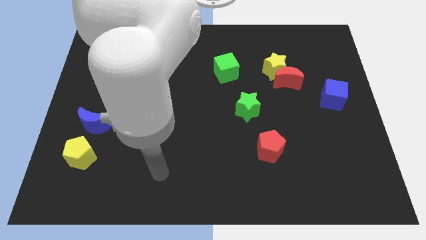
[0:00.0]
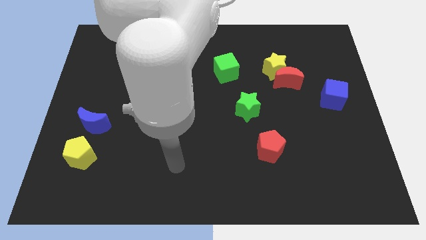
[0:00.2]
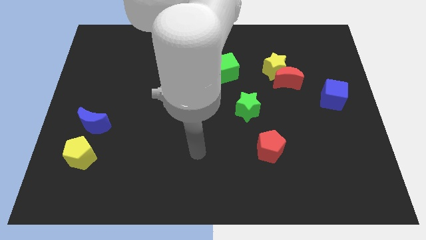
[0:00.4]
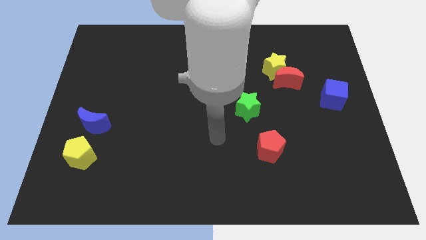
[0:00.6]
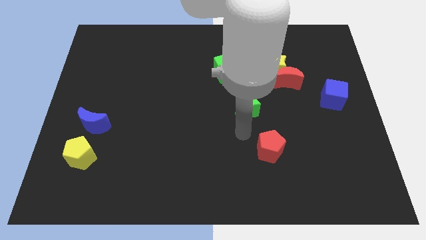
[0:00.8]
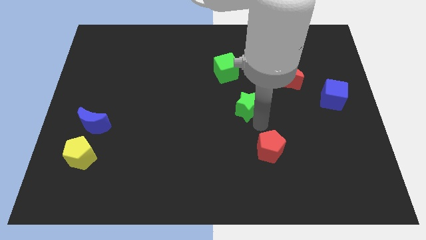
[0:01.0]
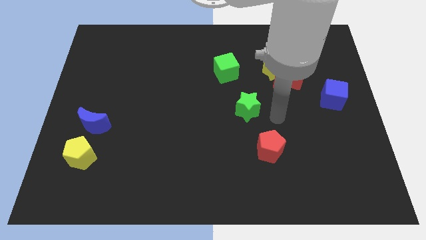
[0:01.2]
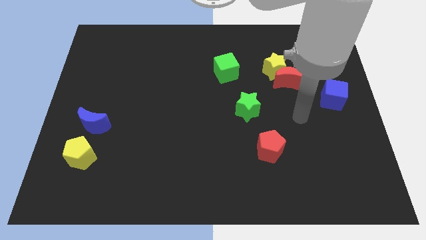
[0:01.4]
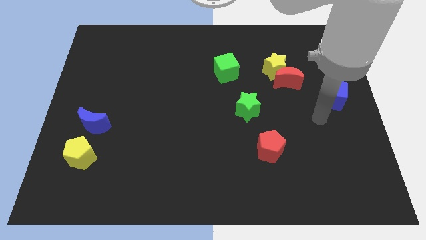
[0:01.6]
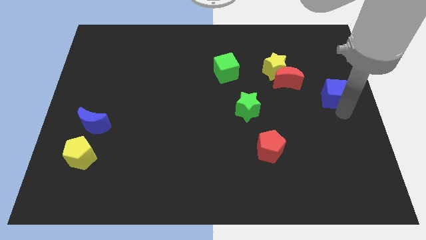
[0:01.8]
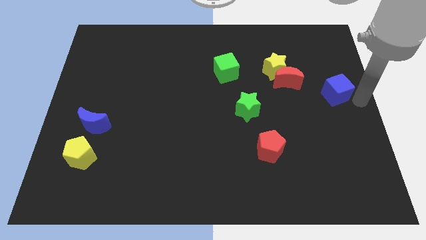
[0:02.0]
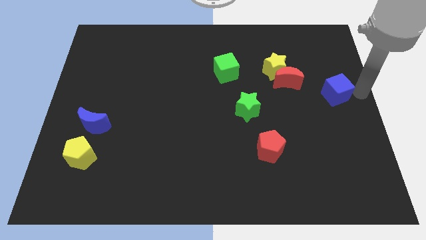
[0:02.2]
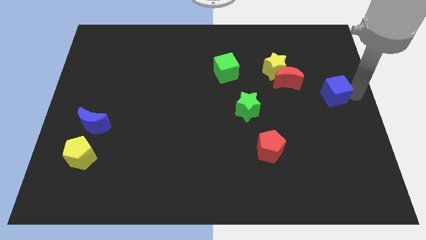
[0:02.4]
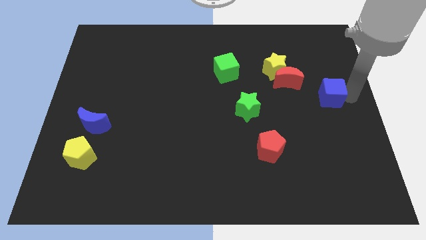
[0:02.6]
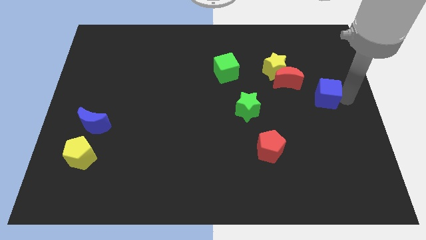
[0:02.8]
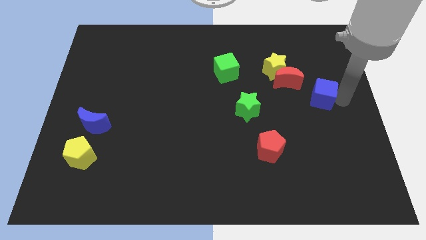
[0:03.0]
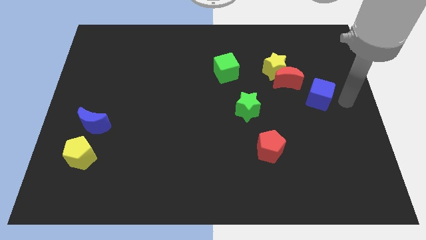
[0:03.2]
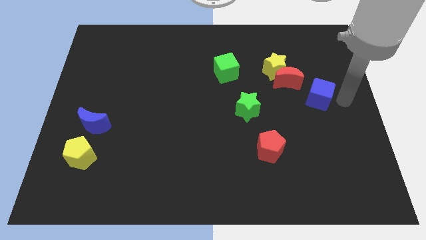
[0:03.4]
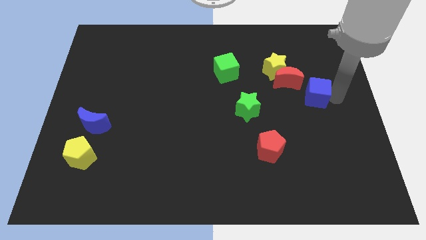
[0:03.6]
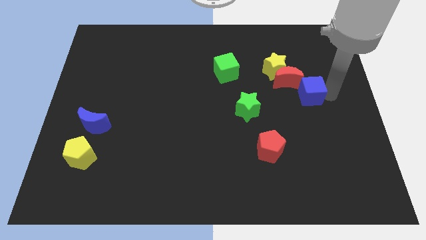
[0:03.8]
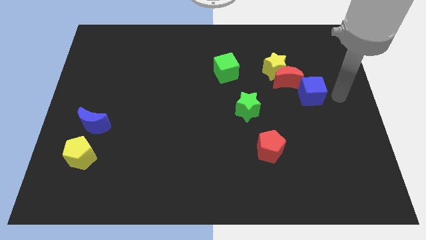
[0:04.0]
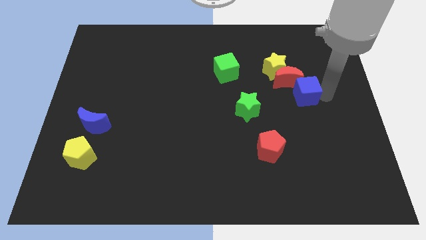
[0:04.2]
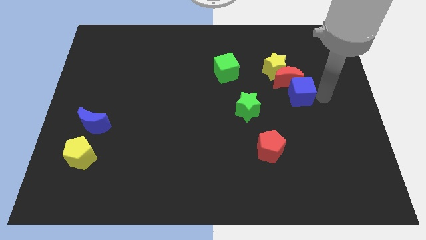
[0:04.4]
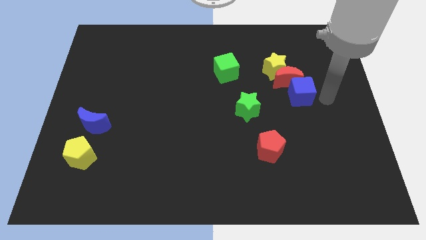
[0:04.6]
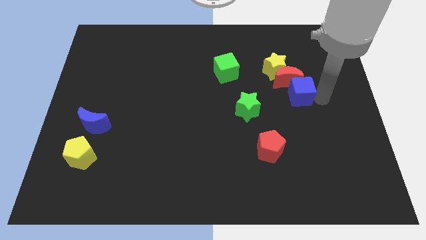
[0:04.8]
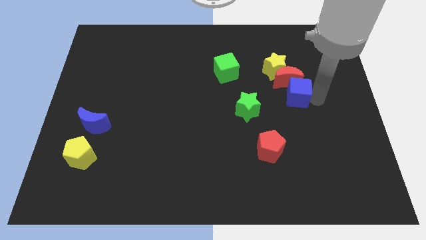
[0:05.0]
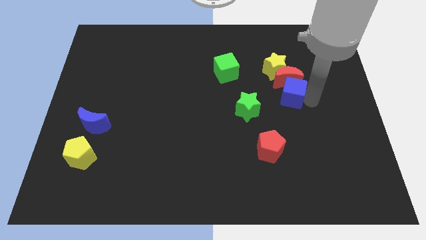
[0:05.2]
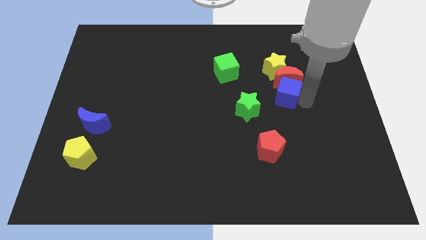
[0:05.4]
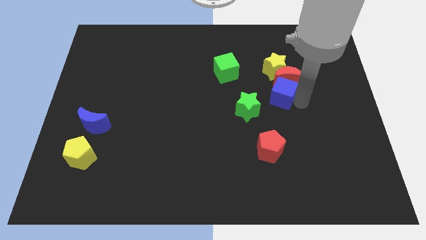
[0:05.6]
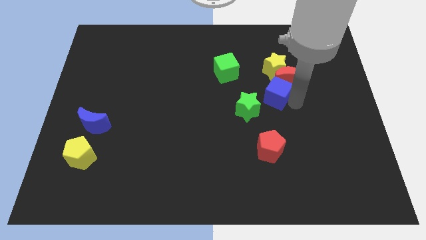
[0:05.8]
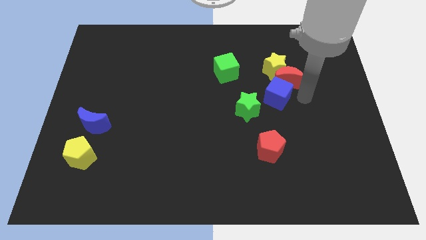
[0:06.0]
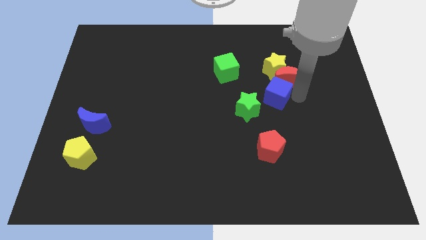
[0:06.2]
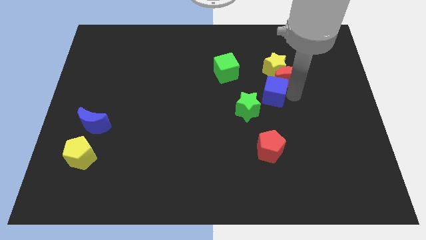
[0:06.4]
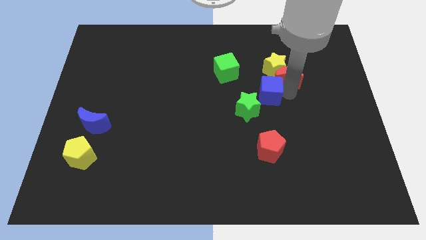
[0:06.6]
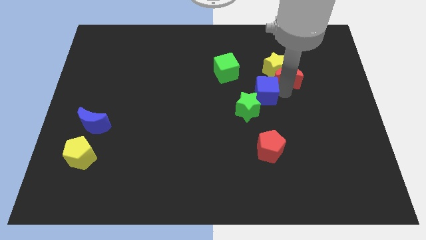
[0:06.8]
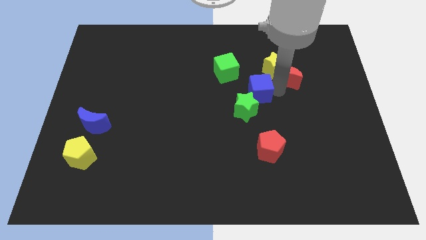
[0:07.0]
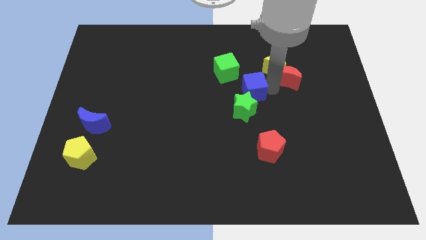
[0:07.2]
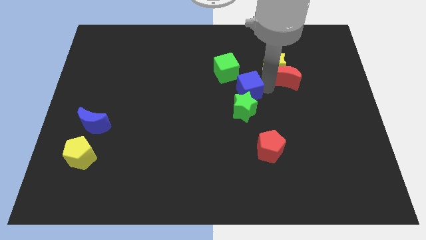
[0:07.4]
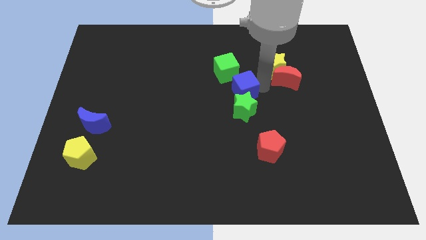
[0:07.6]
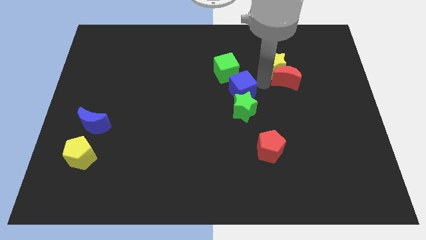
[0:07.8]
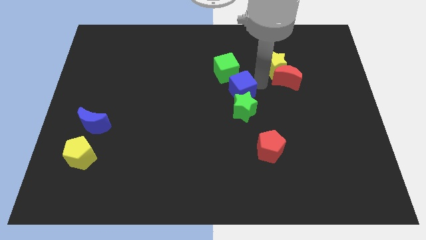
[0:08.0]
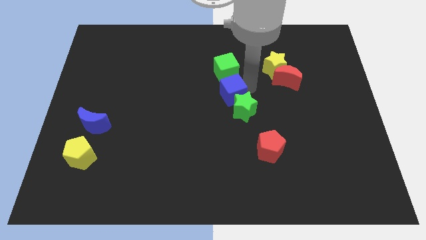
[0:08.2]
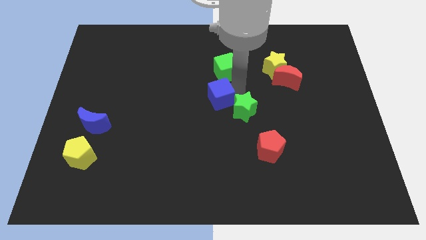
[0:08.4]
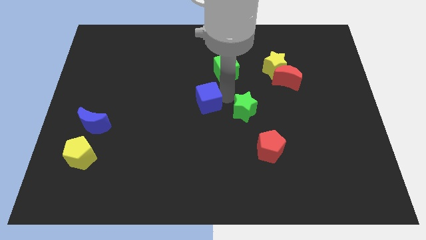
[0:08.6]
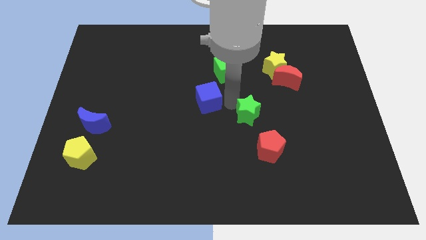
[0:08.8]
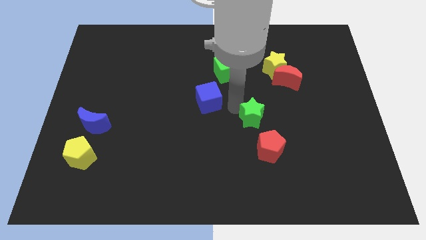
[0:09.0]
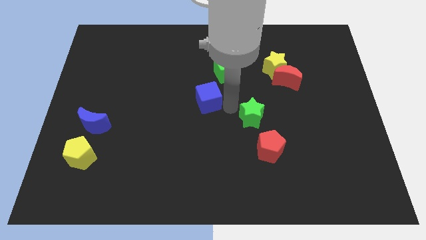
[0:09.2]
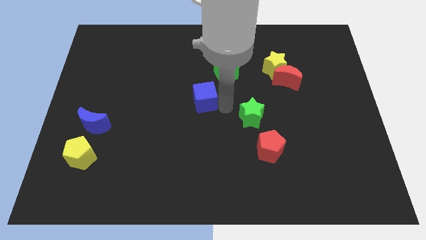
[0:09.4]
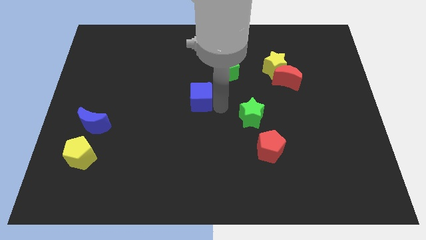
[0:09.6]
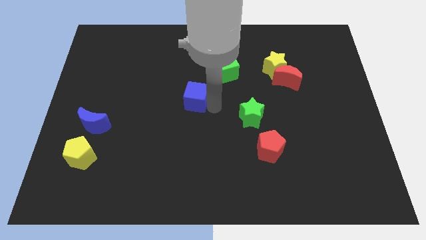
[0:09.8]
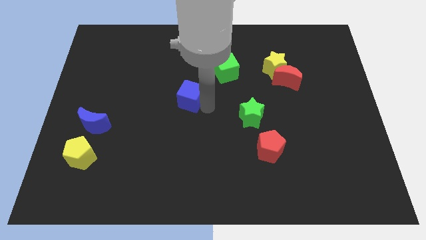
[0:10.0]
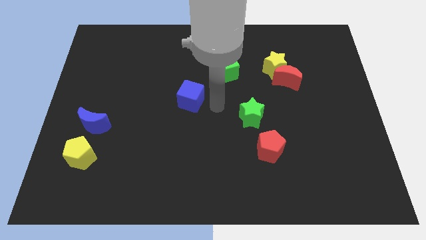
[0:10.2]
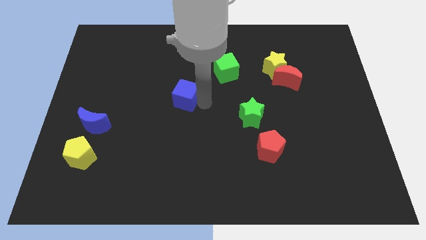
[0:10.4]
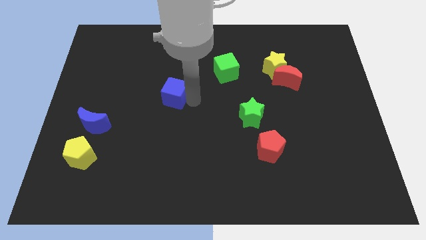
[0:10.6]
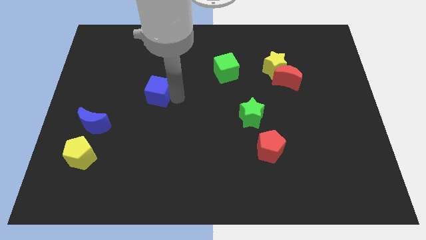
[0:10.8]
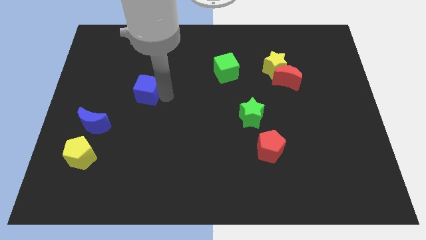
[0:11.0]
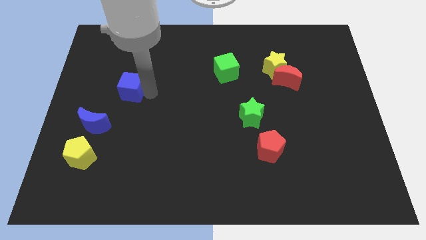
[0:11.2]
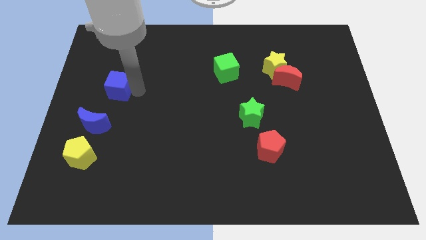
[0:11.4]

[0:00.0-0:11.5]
slide the blue cube to the top of the blue moon

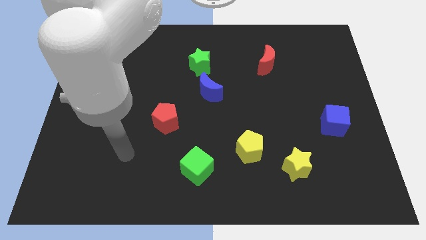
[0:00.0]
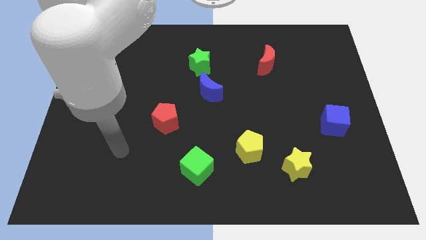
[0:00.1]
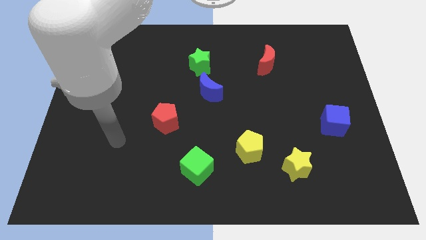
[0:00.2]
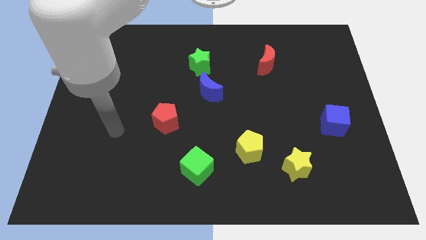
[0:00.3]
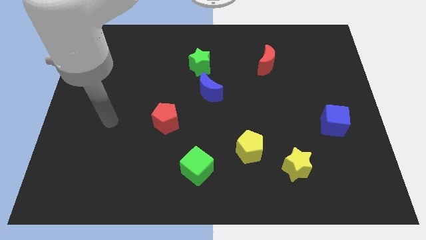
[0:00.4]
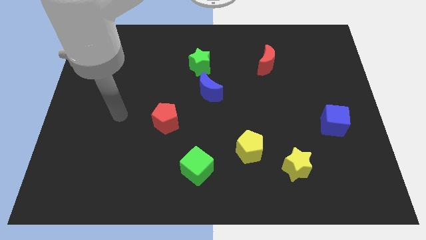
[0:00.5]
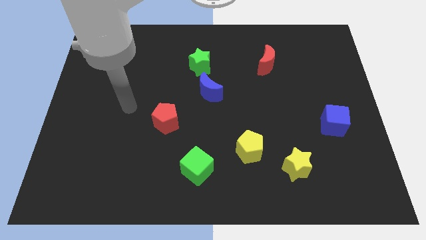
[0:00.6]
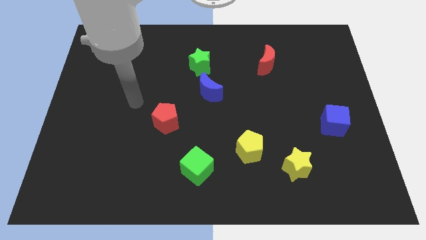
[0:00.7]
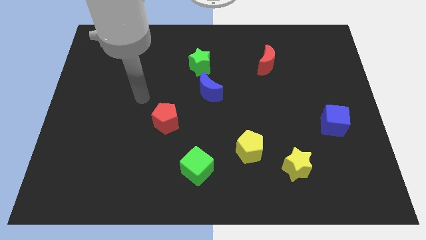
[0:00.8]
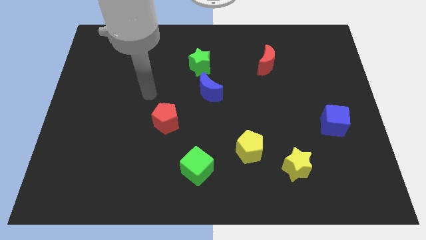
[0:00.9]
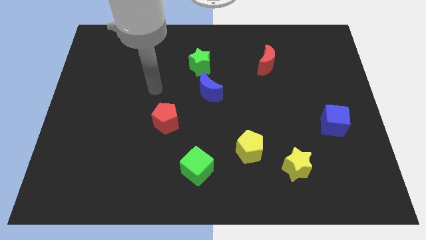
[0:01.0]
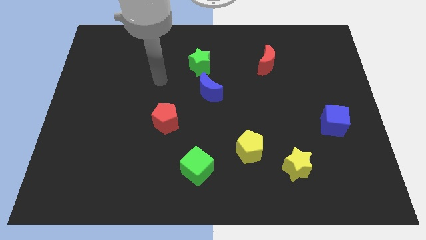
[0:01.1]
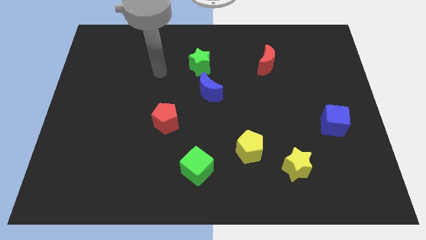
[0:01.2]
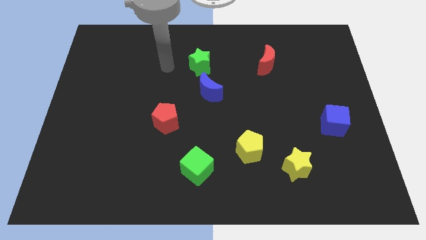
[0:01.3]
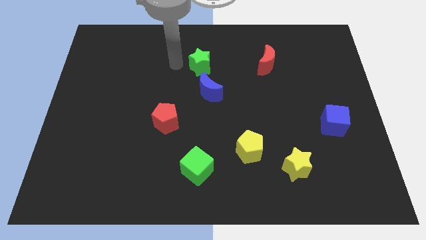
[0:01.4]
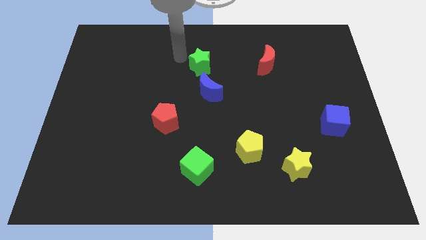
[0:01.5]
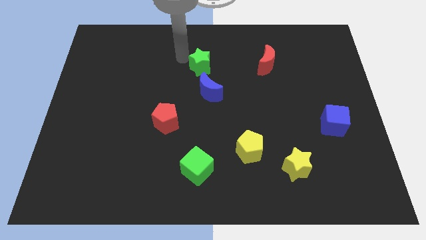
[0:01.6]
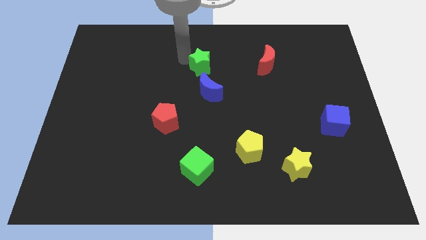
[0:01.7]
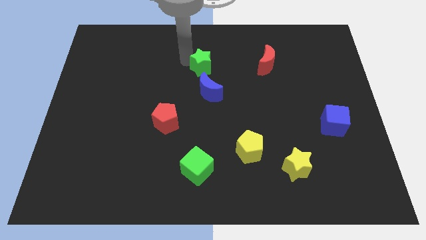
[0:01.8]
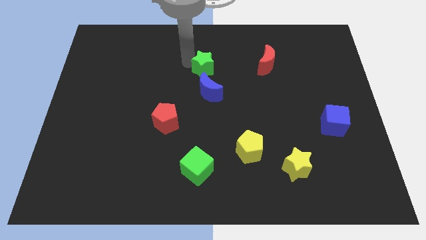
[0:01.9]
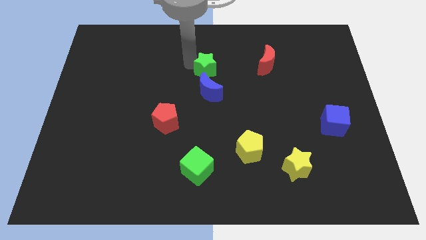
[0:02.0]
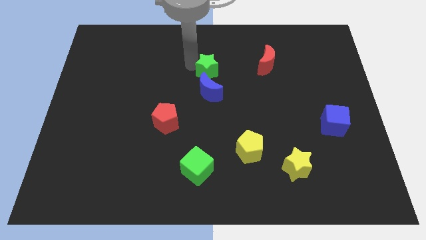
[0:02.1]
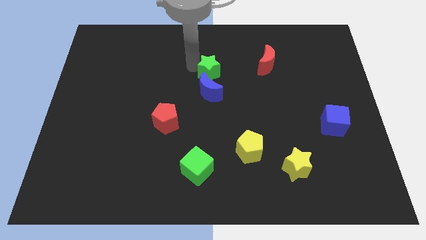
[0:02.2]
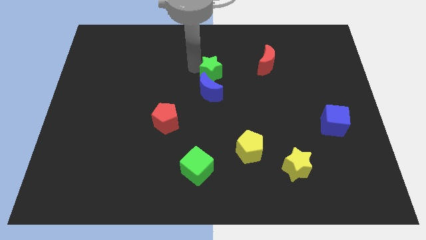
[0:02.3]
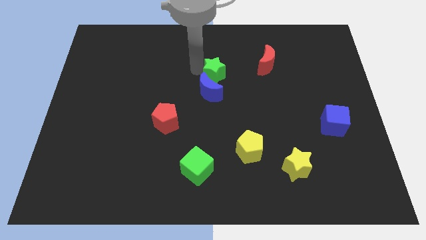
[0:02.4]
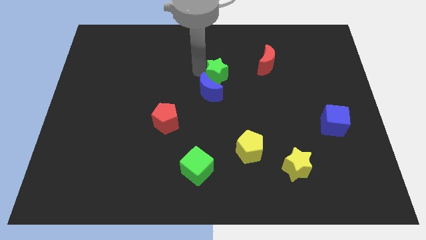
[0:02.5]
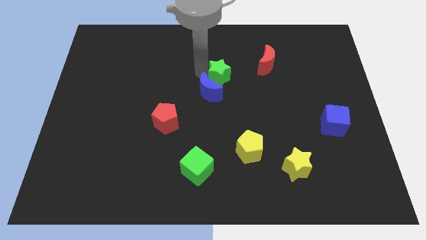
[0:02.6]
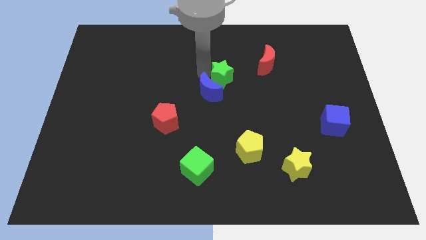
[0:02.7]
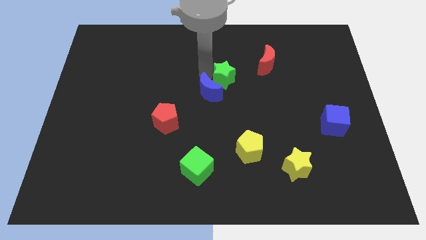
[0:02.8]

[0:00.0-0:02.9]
move the green star right of the blue moon
